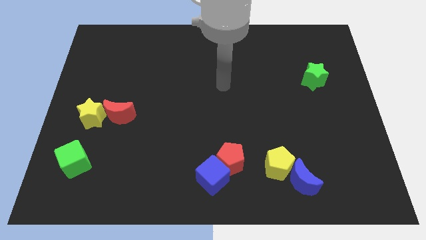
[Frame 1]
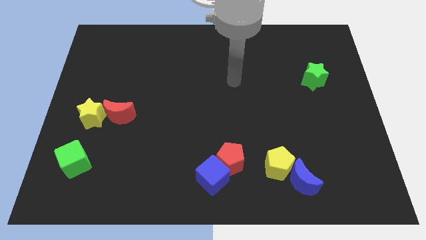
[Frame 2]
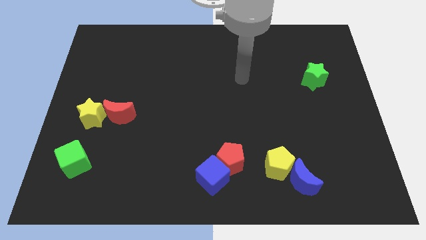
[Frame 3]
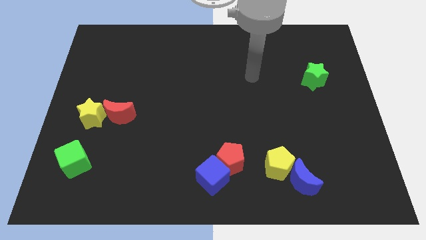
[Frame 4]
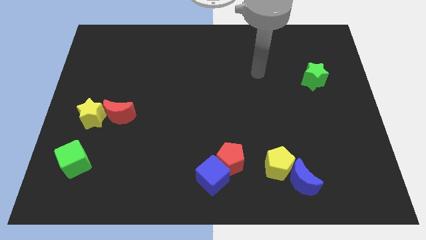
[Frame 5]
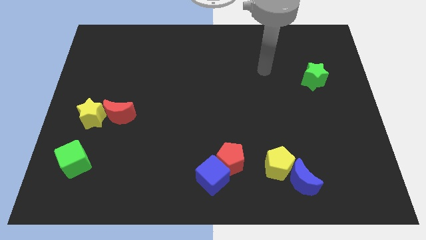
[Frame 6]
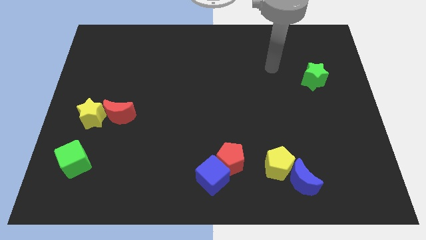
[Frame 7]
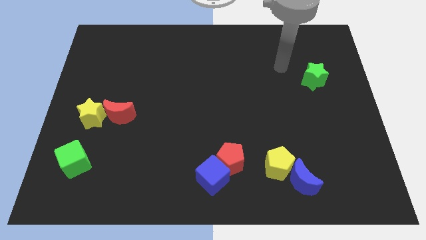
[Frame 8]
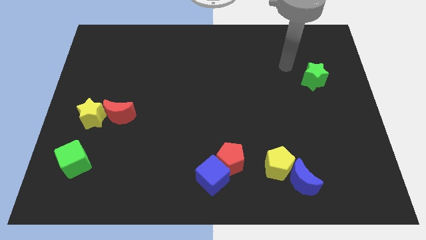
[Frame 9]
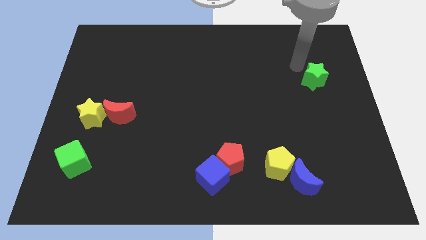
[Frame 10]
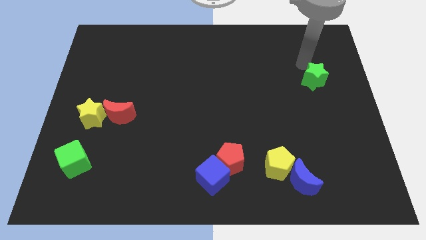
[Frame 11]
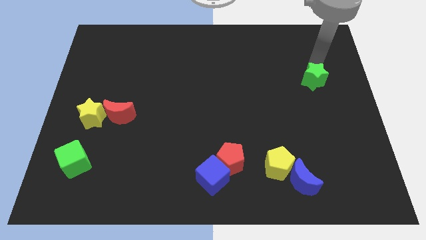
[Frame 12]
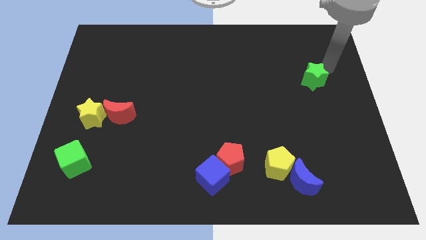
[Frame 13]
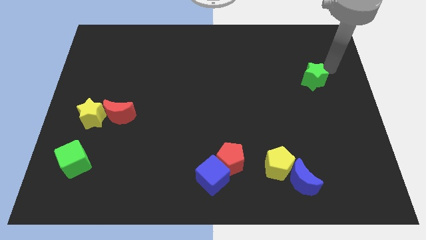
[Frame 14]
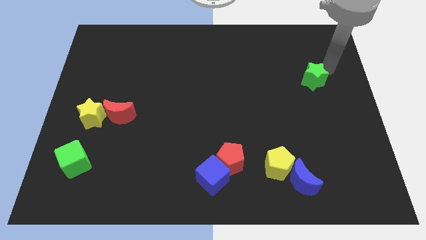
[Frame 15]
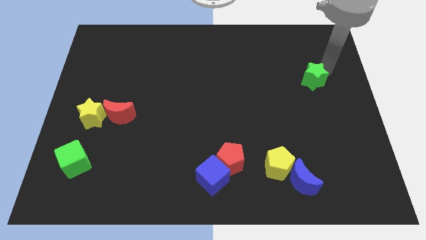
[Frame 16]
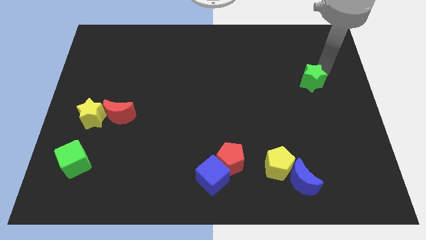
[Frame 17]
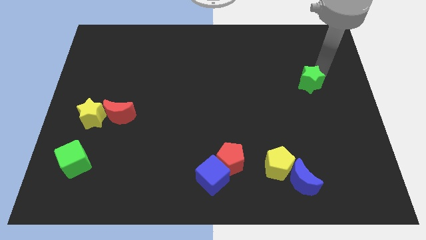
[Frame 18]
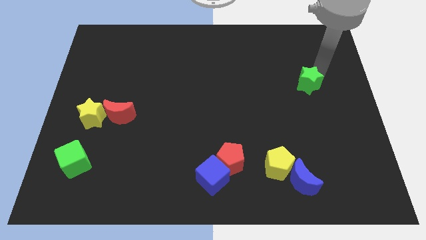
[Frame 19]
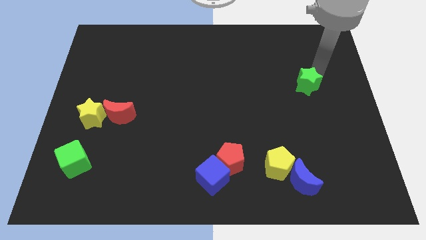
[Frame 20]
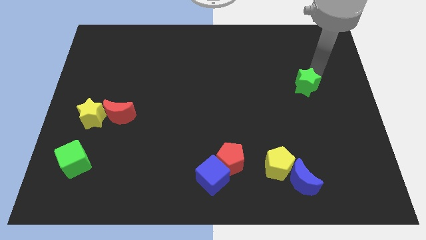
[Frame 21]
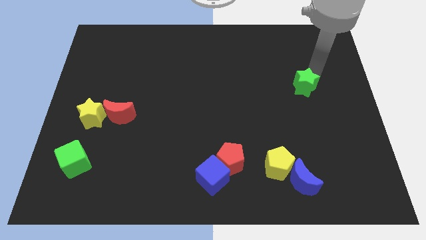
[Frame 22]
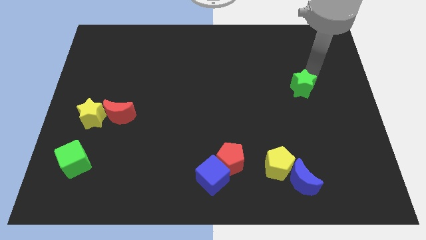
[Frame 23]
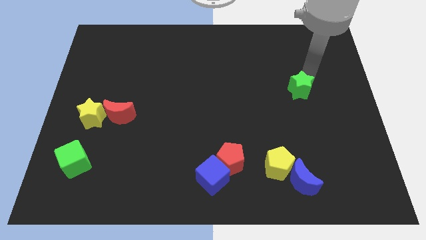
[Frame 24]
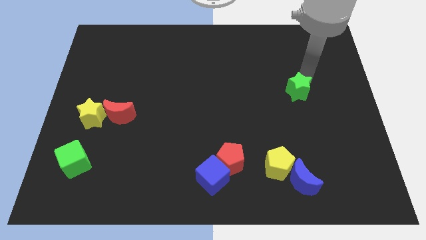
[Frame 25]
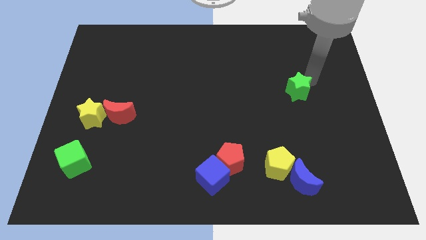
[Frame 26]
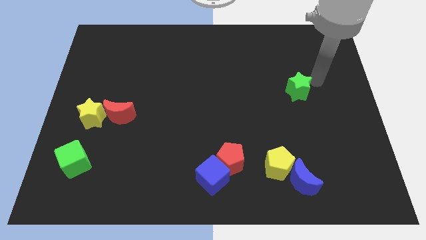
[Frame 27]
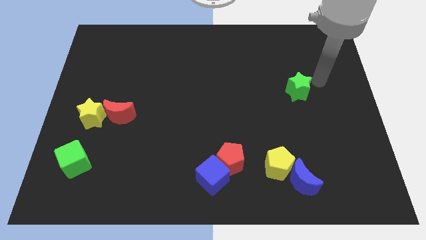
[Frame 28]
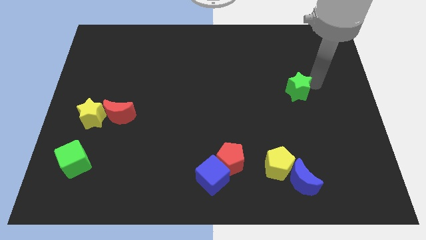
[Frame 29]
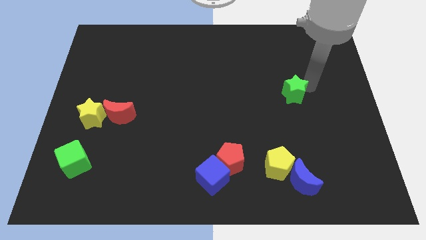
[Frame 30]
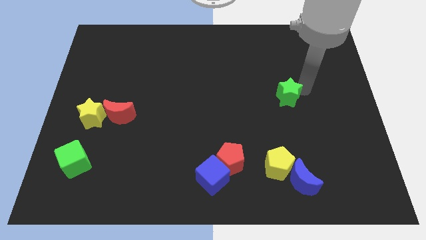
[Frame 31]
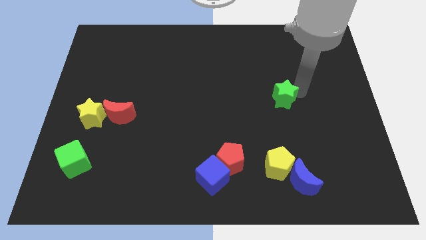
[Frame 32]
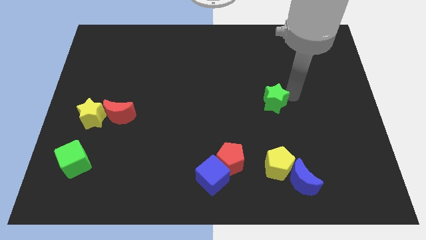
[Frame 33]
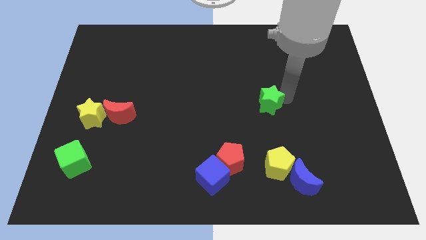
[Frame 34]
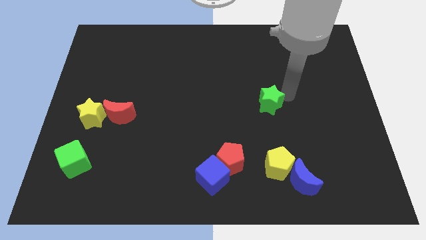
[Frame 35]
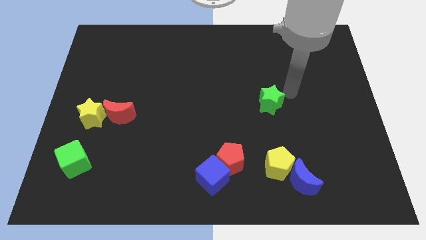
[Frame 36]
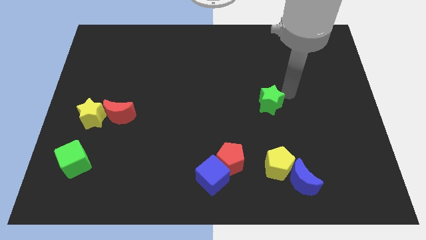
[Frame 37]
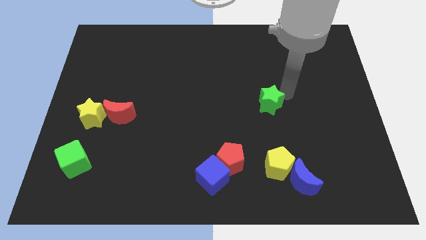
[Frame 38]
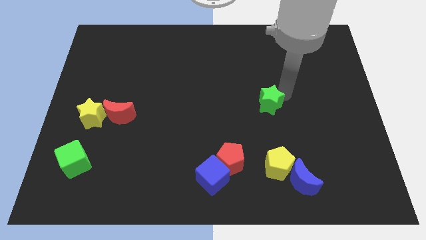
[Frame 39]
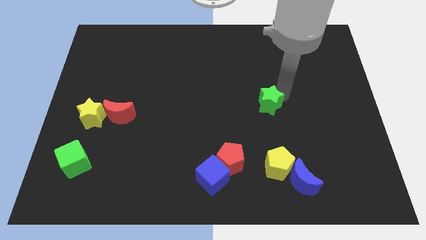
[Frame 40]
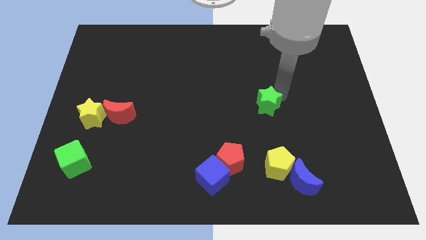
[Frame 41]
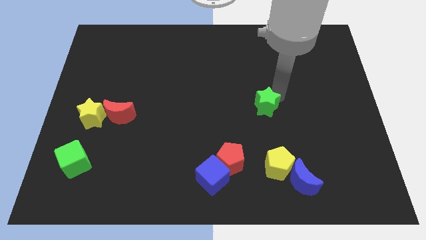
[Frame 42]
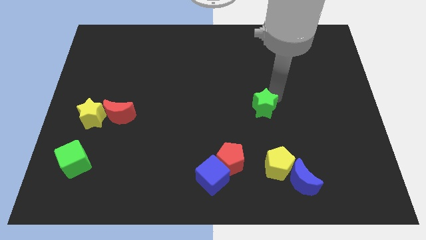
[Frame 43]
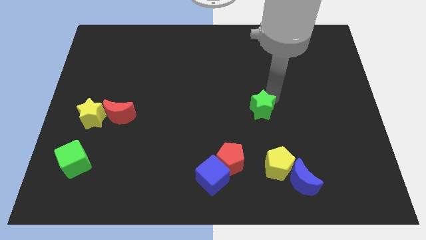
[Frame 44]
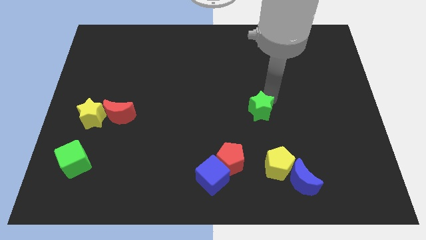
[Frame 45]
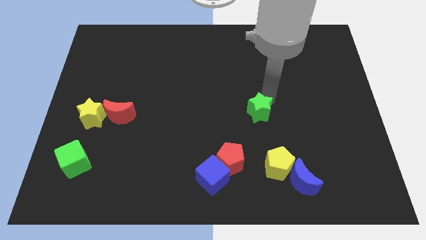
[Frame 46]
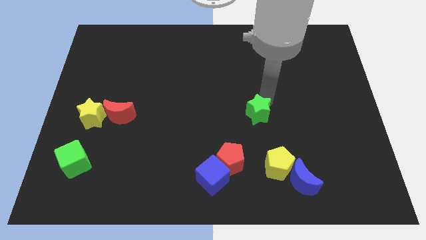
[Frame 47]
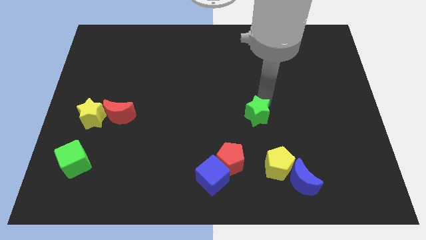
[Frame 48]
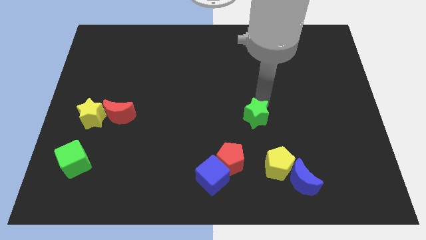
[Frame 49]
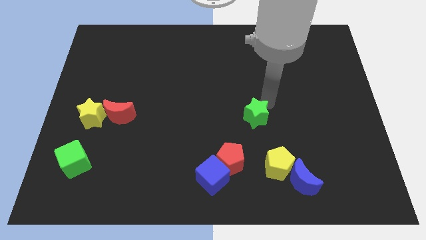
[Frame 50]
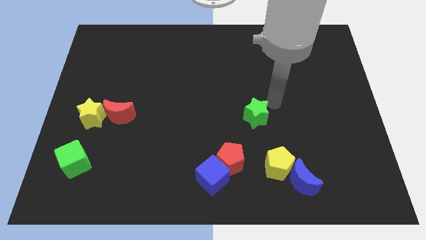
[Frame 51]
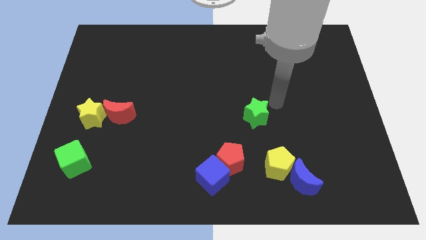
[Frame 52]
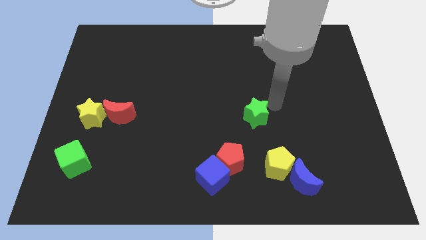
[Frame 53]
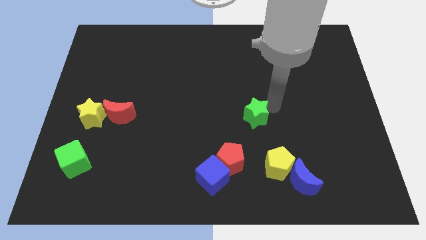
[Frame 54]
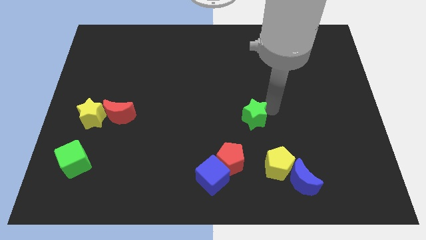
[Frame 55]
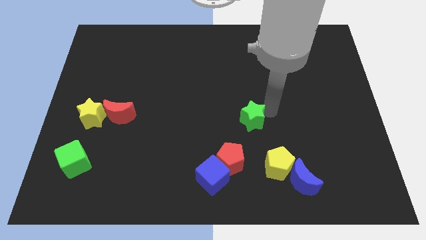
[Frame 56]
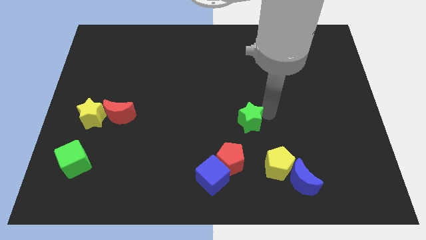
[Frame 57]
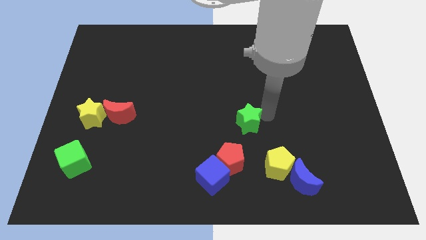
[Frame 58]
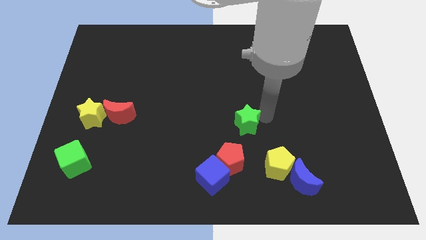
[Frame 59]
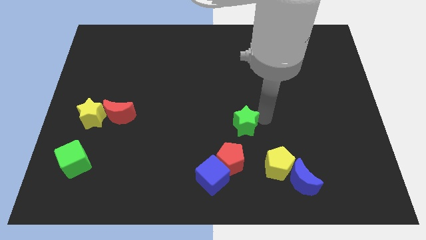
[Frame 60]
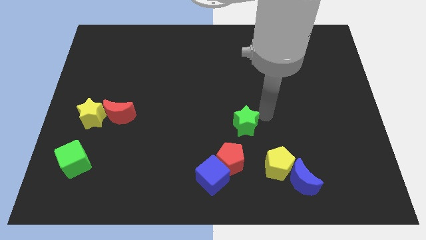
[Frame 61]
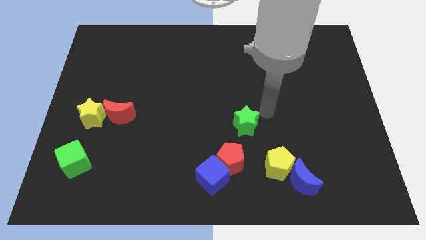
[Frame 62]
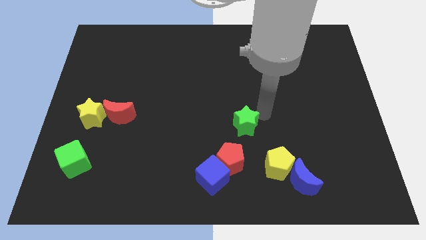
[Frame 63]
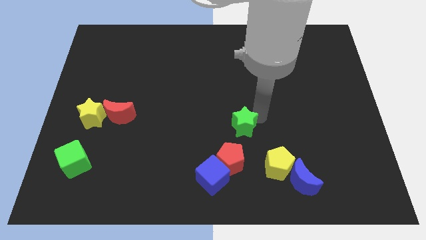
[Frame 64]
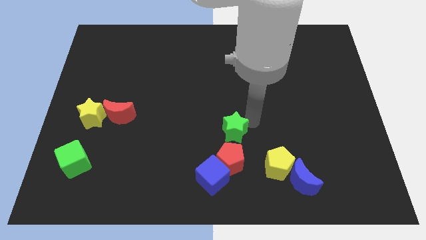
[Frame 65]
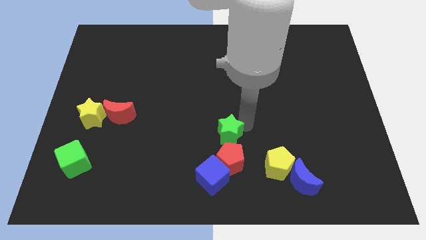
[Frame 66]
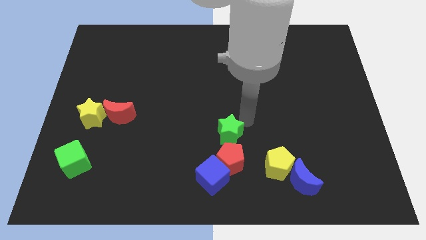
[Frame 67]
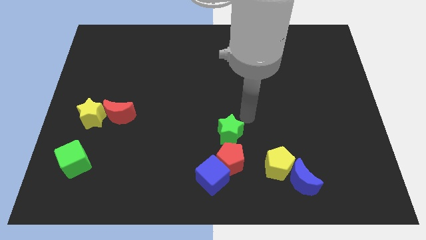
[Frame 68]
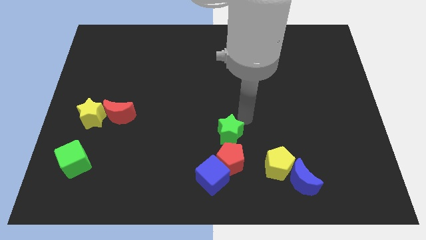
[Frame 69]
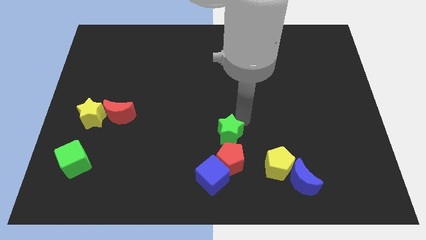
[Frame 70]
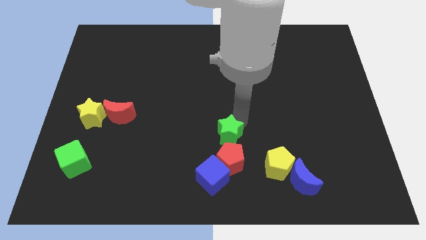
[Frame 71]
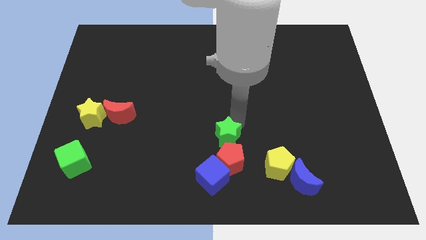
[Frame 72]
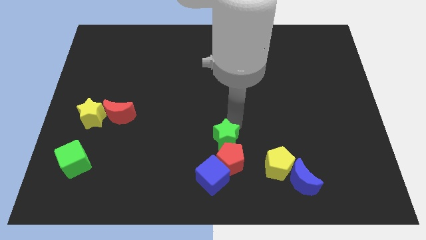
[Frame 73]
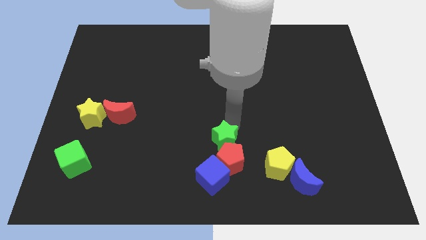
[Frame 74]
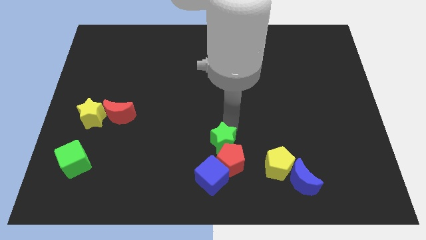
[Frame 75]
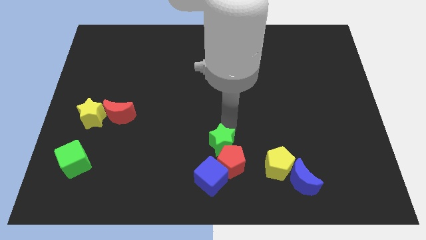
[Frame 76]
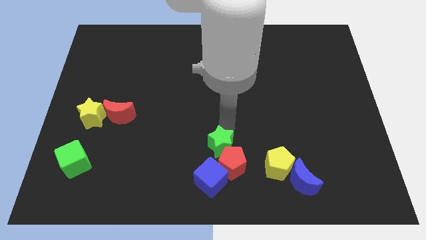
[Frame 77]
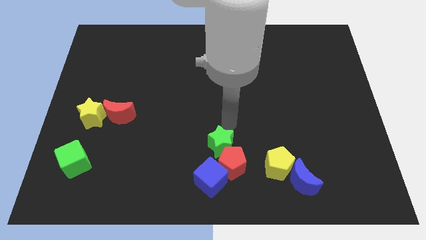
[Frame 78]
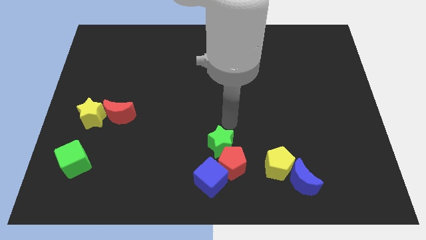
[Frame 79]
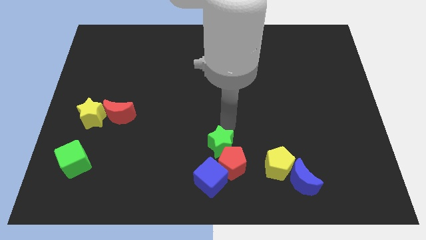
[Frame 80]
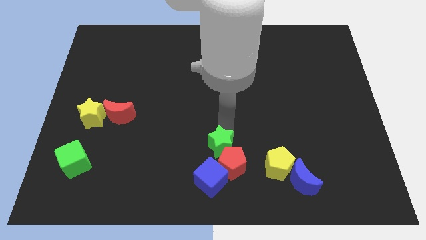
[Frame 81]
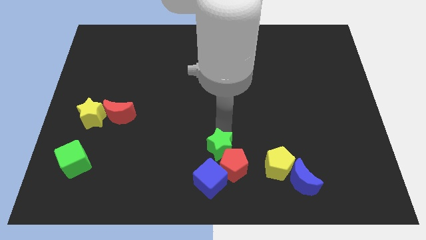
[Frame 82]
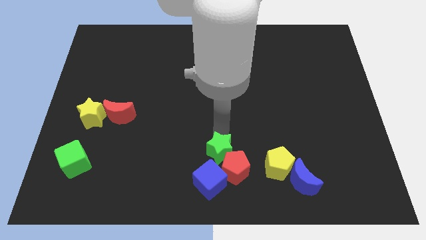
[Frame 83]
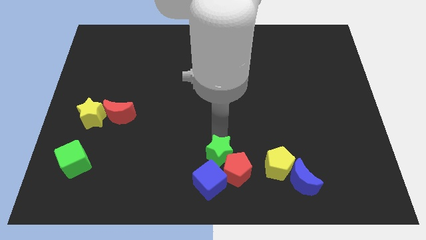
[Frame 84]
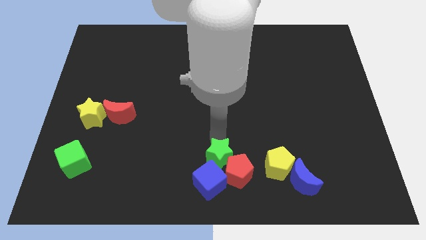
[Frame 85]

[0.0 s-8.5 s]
slide the green star towards the blue cube
